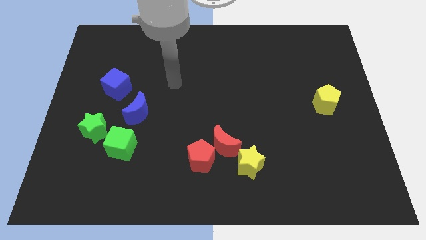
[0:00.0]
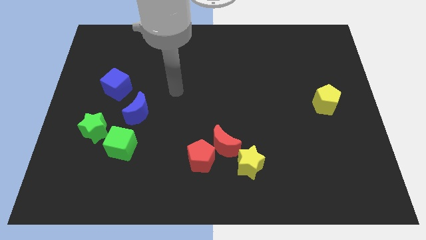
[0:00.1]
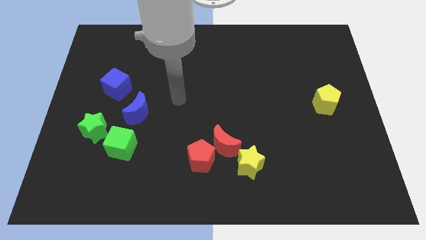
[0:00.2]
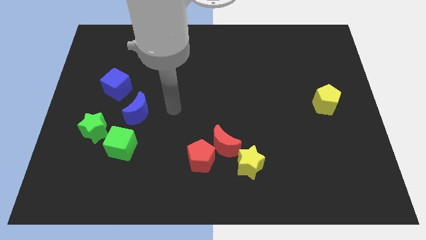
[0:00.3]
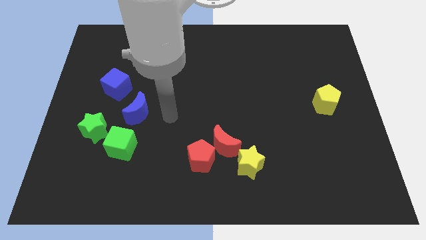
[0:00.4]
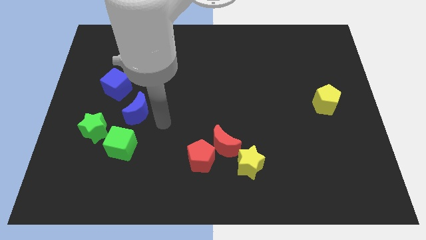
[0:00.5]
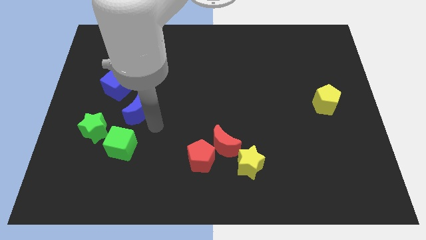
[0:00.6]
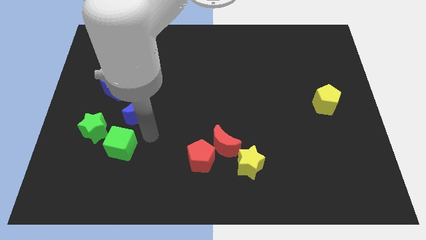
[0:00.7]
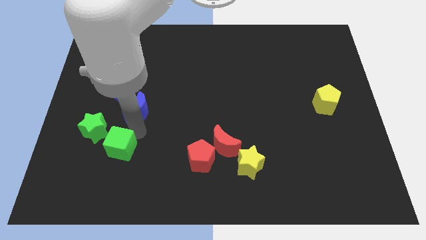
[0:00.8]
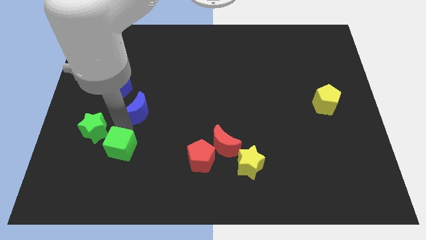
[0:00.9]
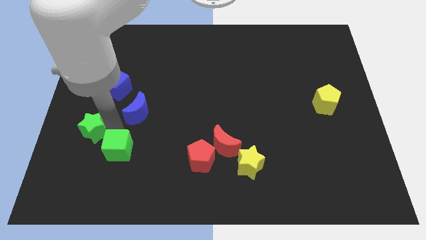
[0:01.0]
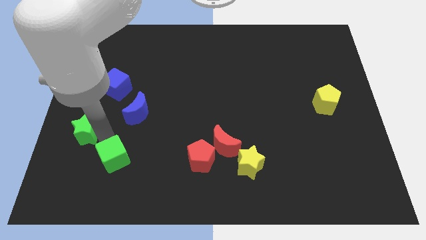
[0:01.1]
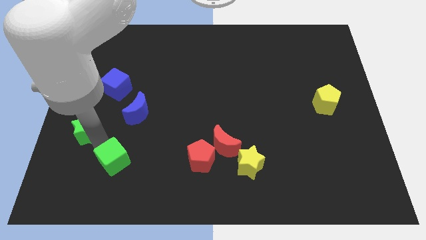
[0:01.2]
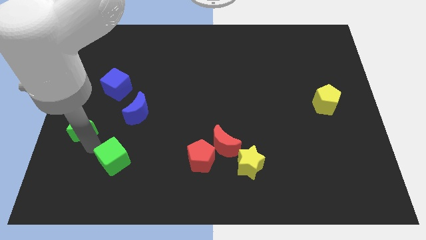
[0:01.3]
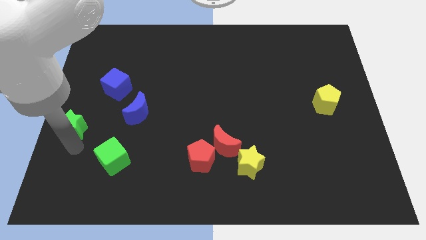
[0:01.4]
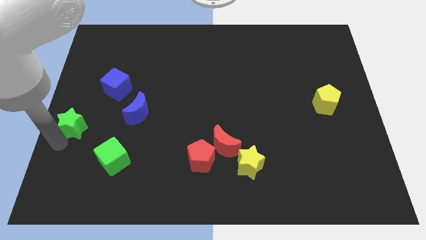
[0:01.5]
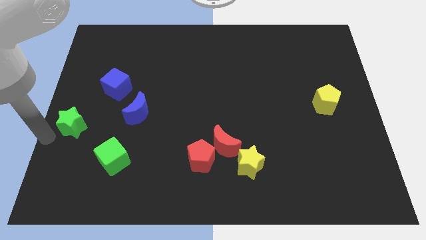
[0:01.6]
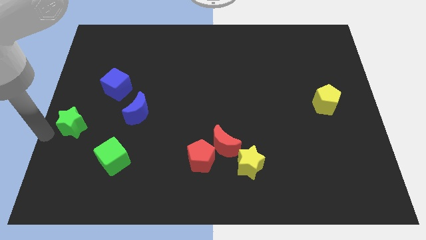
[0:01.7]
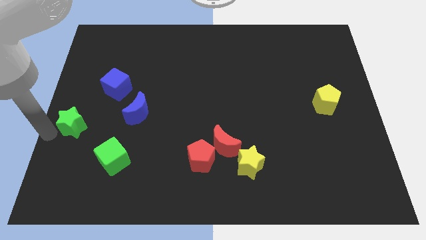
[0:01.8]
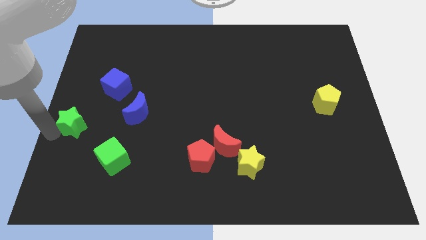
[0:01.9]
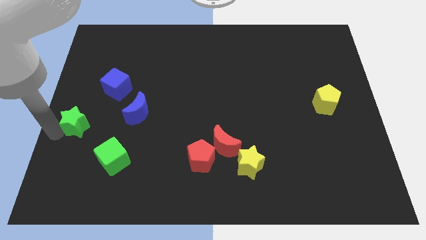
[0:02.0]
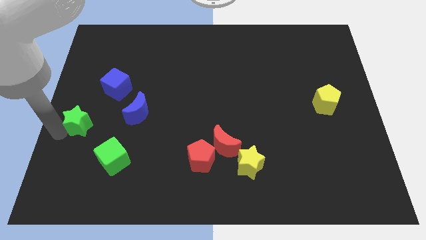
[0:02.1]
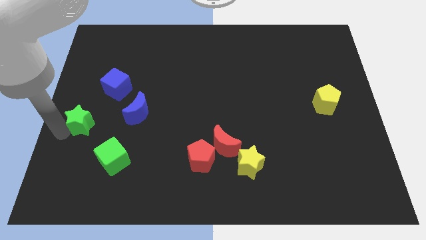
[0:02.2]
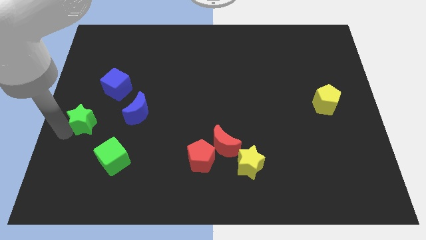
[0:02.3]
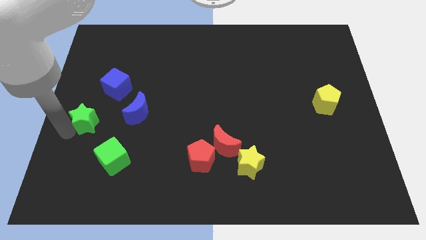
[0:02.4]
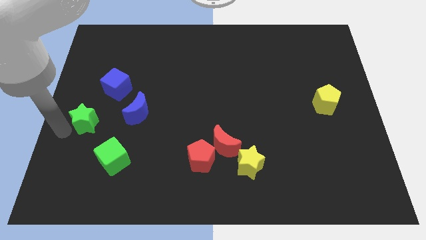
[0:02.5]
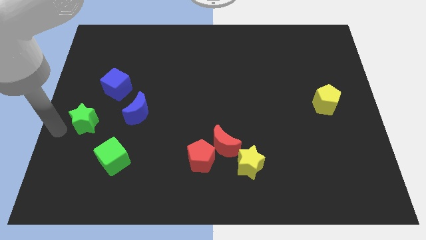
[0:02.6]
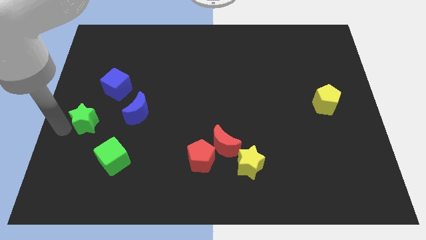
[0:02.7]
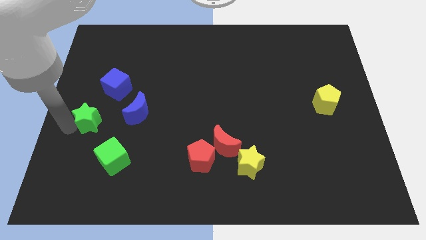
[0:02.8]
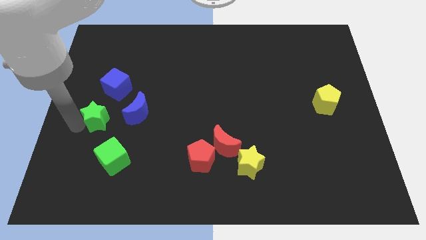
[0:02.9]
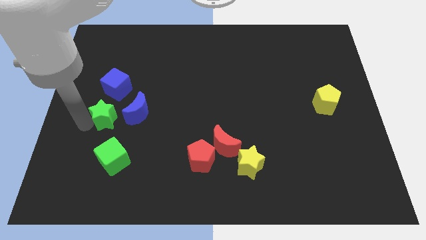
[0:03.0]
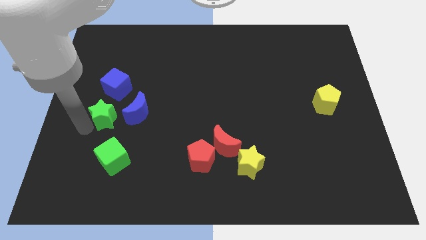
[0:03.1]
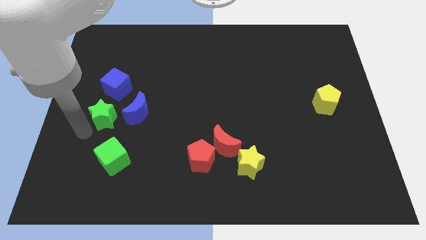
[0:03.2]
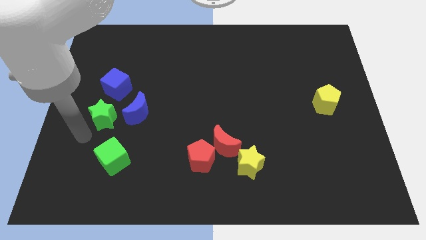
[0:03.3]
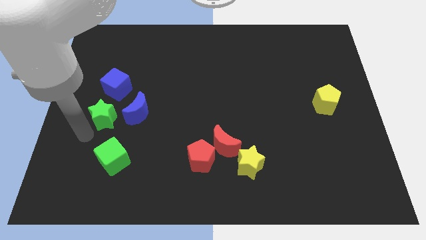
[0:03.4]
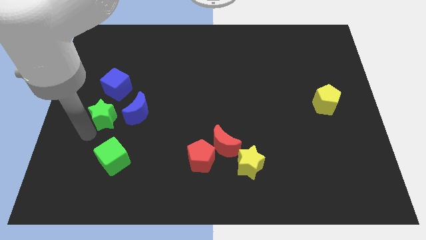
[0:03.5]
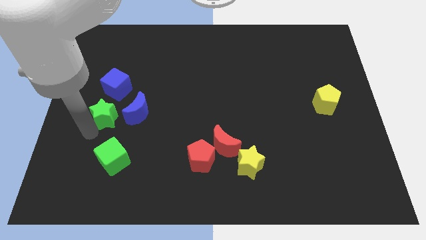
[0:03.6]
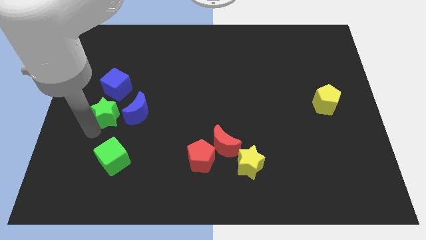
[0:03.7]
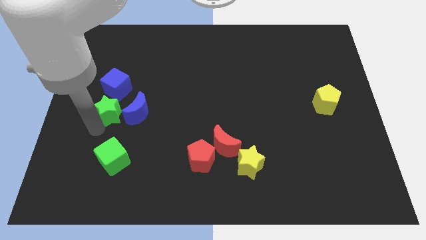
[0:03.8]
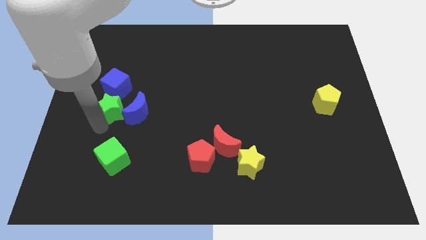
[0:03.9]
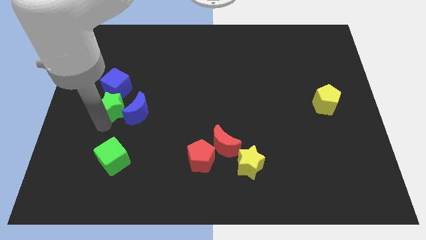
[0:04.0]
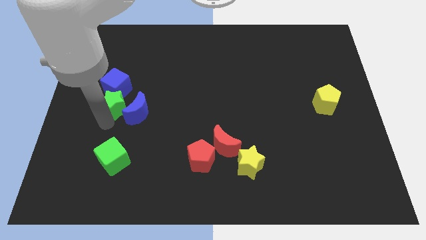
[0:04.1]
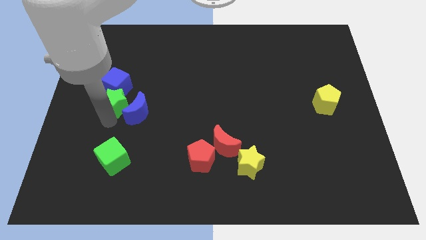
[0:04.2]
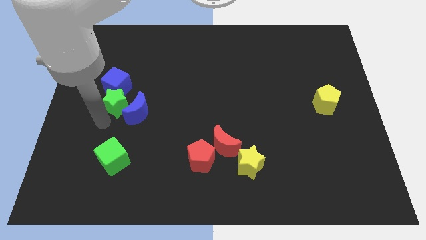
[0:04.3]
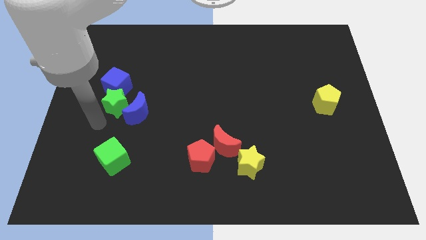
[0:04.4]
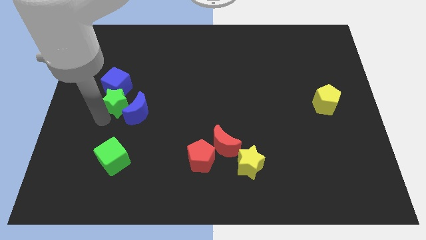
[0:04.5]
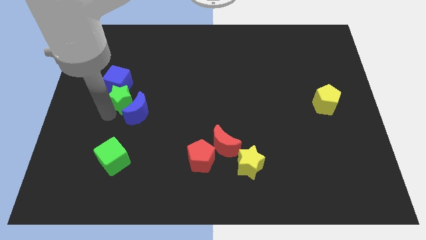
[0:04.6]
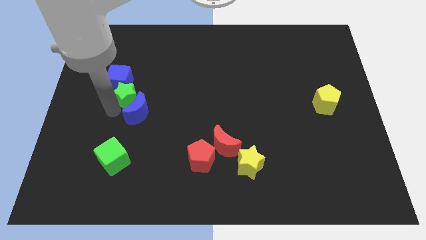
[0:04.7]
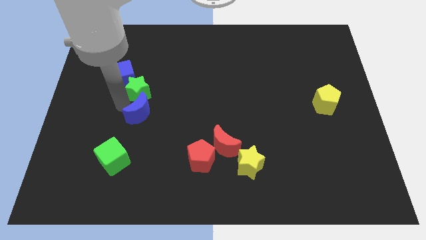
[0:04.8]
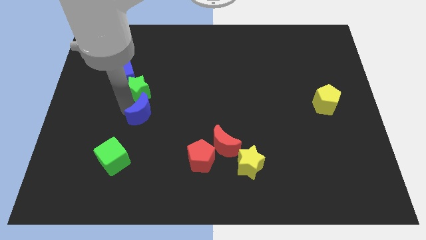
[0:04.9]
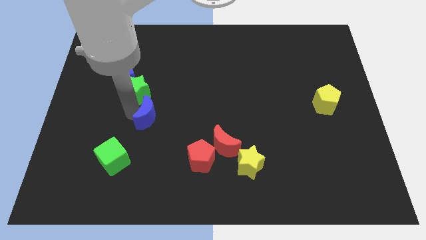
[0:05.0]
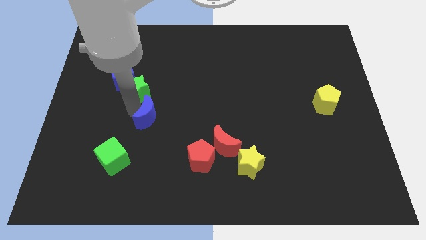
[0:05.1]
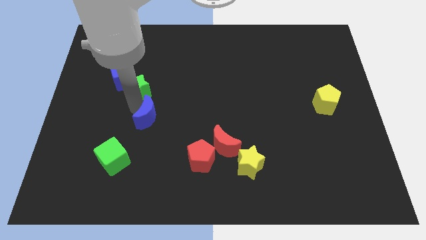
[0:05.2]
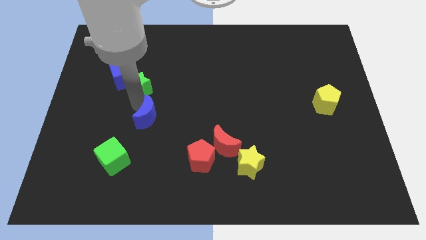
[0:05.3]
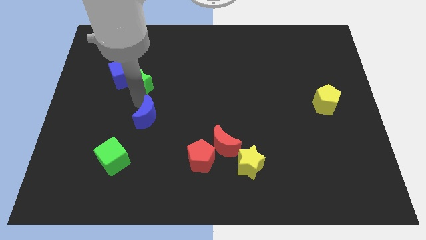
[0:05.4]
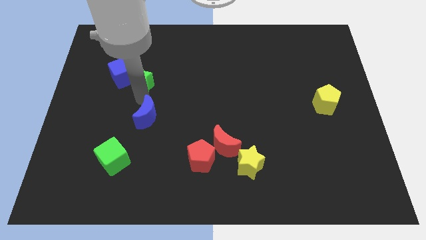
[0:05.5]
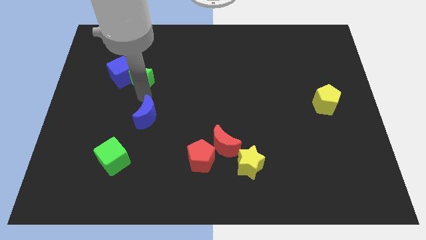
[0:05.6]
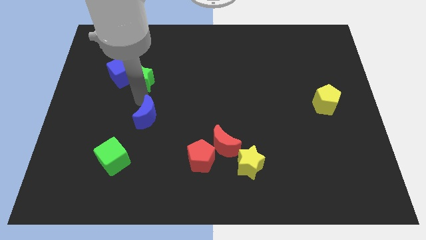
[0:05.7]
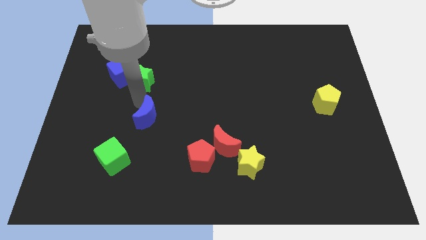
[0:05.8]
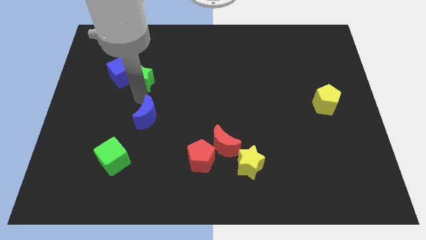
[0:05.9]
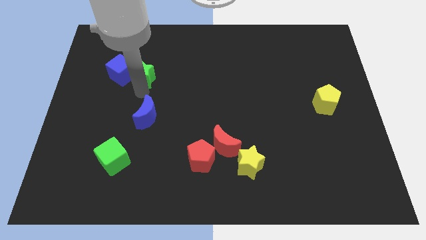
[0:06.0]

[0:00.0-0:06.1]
push the green star diagonally up and to the right of the blue cube

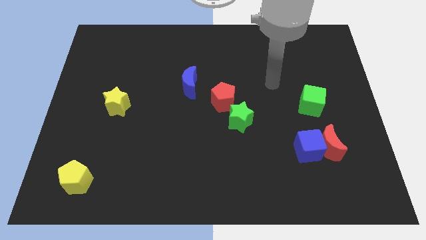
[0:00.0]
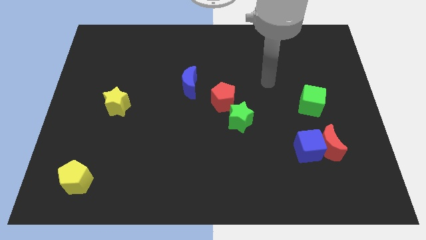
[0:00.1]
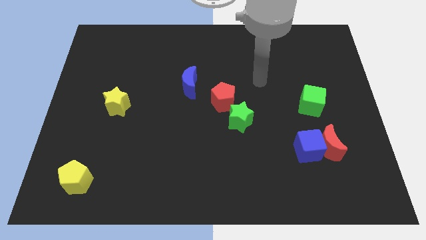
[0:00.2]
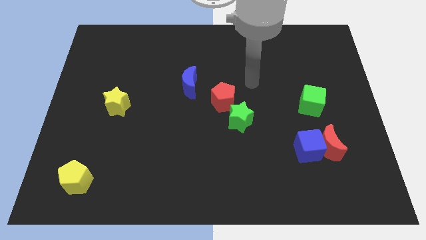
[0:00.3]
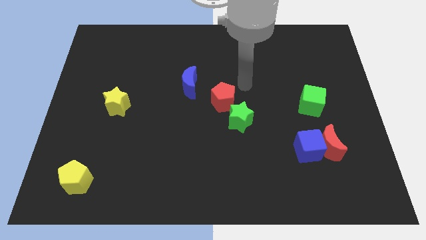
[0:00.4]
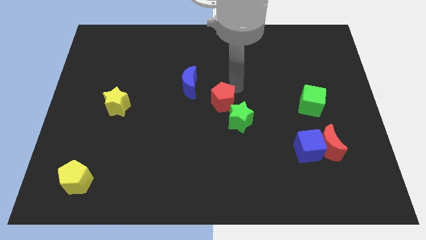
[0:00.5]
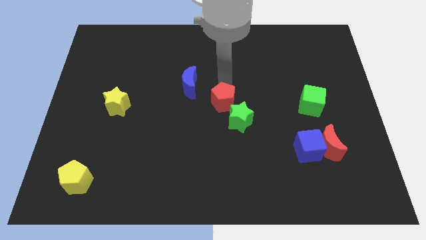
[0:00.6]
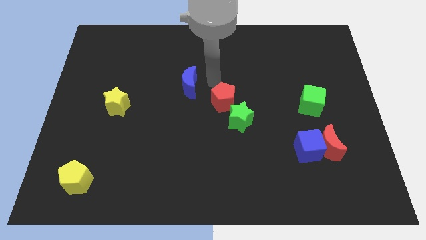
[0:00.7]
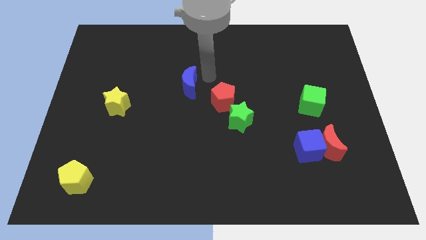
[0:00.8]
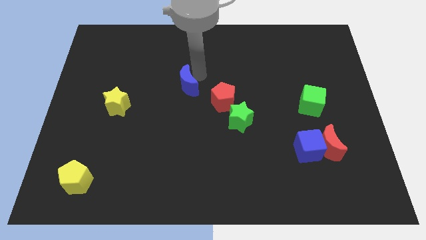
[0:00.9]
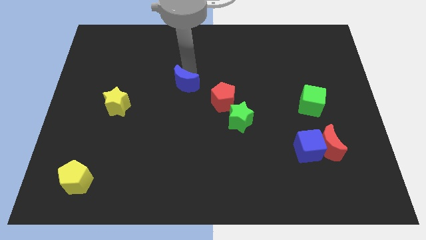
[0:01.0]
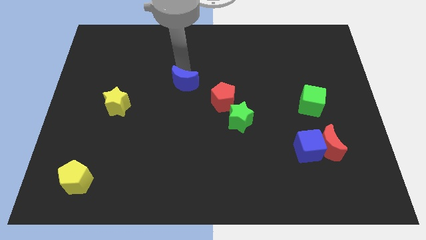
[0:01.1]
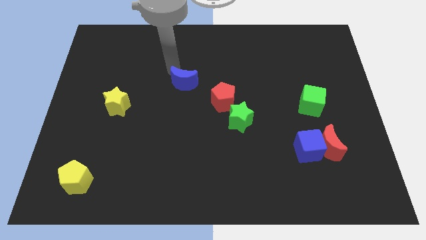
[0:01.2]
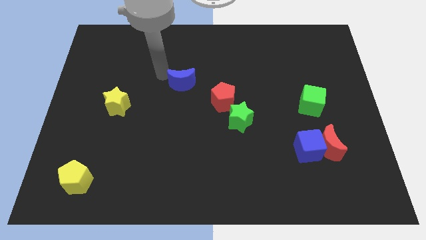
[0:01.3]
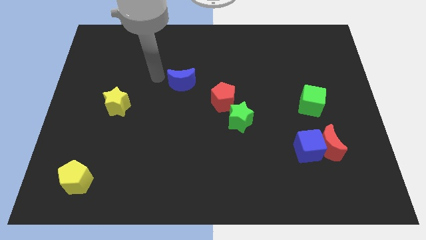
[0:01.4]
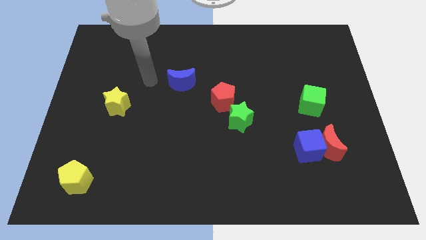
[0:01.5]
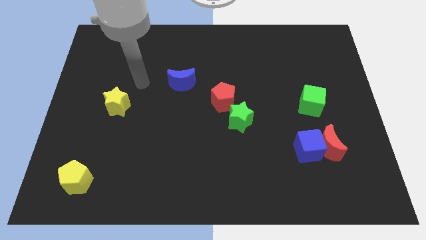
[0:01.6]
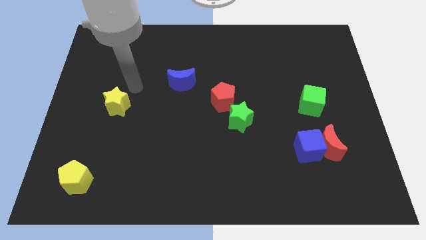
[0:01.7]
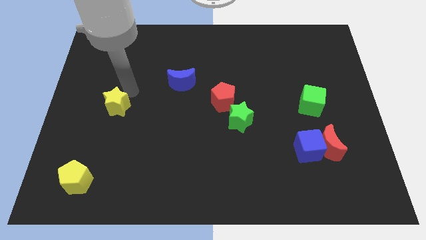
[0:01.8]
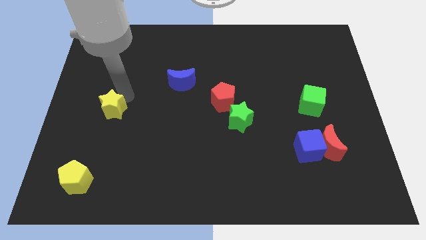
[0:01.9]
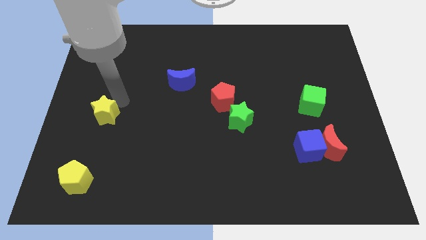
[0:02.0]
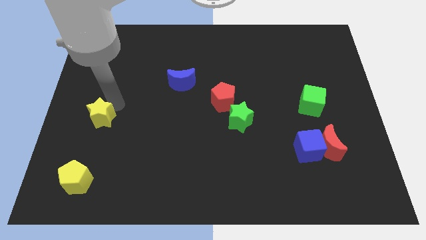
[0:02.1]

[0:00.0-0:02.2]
push the yellow star to the top of the yellow pentagon
